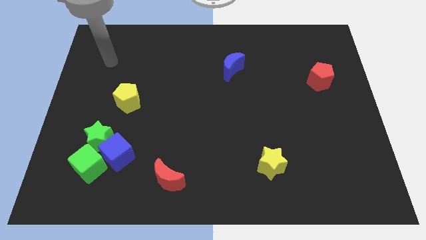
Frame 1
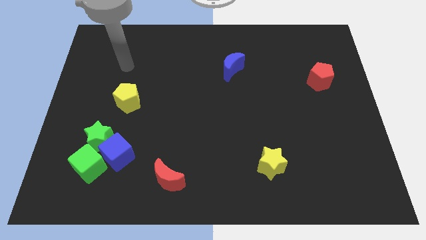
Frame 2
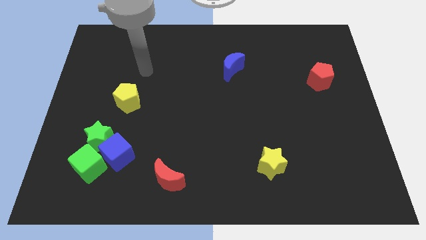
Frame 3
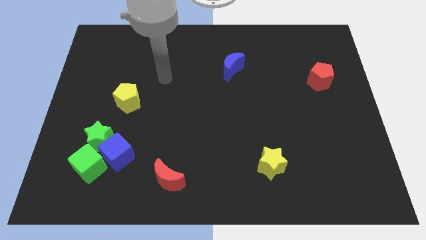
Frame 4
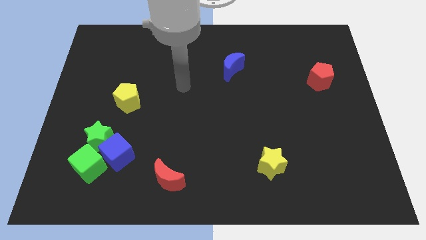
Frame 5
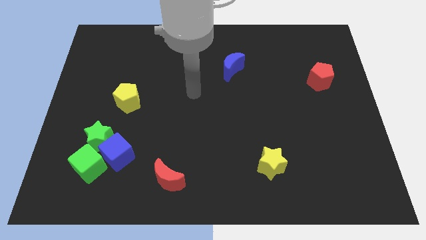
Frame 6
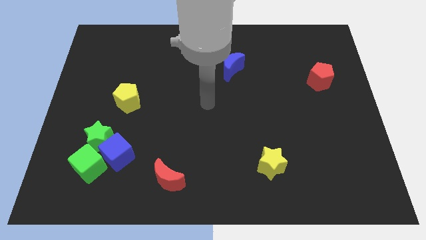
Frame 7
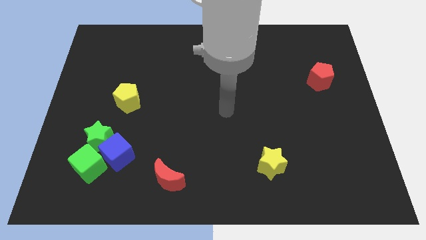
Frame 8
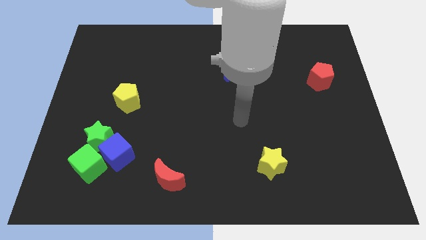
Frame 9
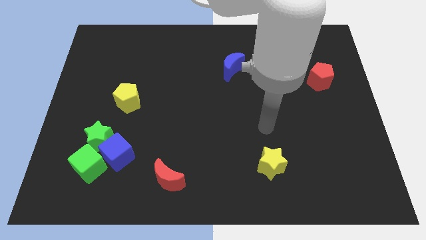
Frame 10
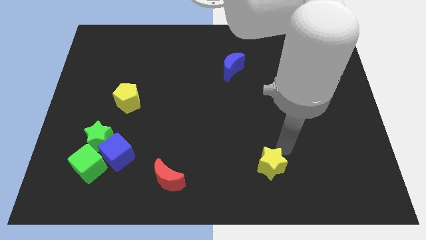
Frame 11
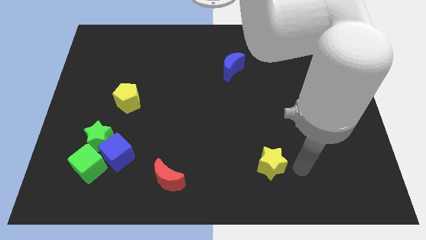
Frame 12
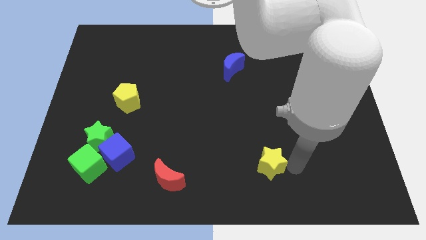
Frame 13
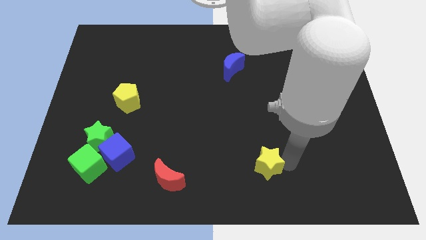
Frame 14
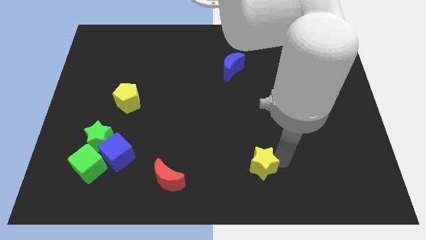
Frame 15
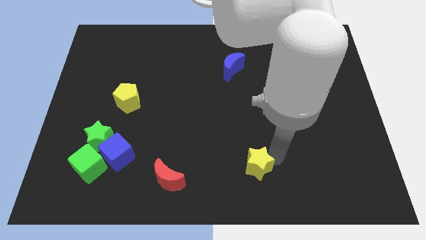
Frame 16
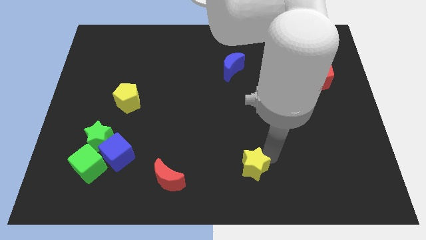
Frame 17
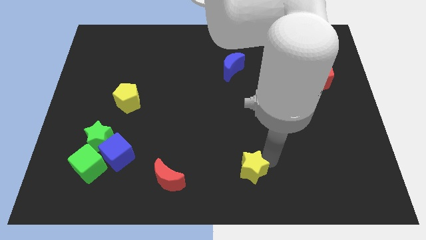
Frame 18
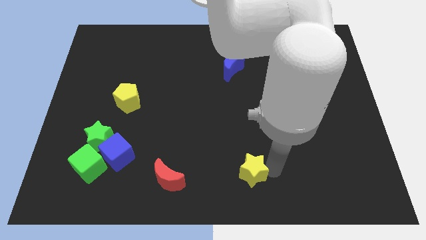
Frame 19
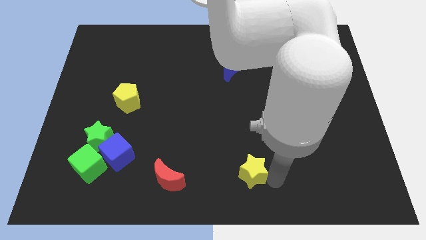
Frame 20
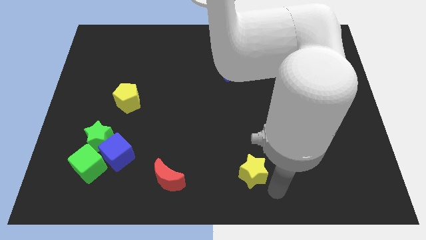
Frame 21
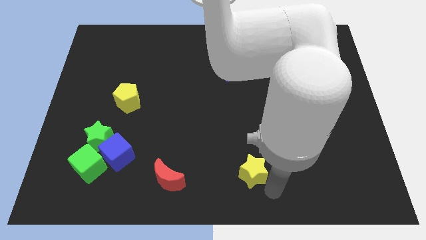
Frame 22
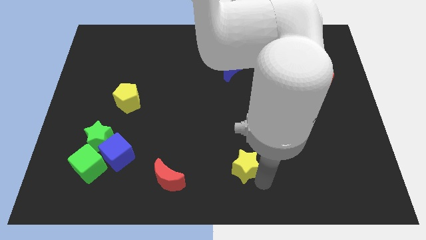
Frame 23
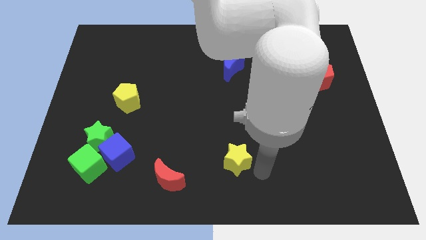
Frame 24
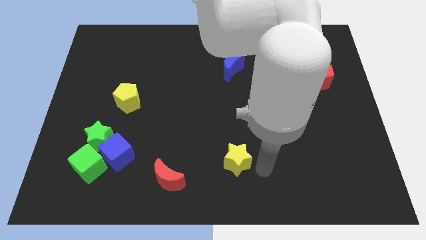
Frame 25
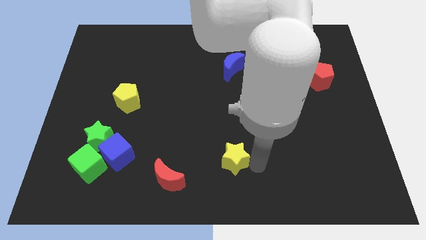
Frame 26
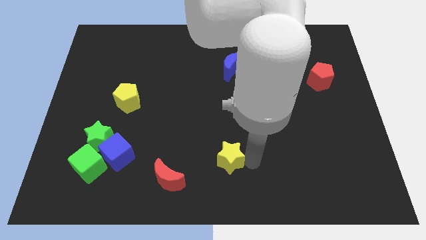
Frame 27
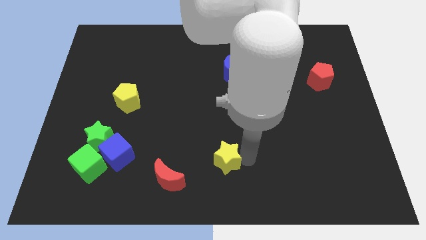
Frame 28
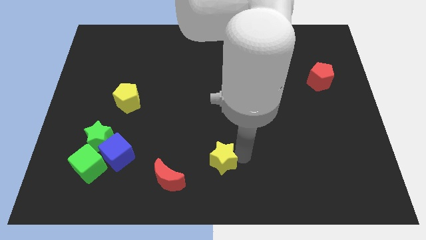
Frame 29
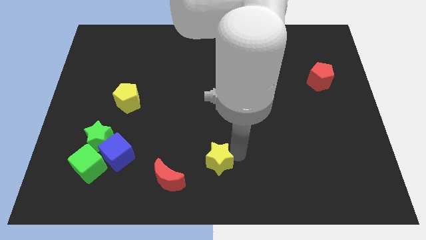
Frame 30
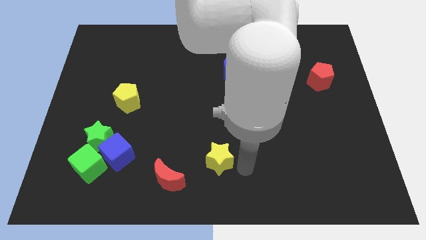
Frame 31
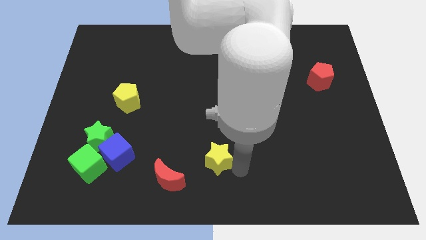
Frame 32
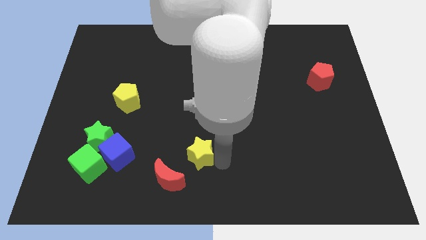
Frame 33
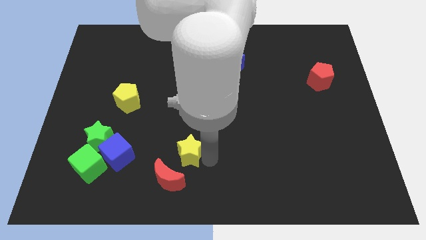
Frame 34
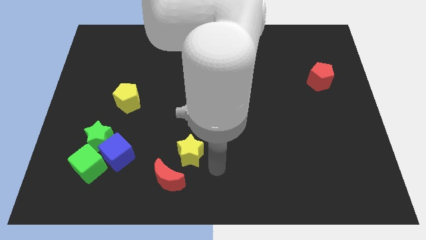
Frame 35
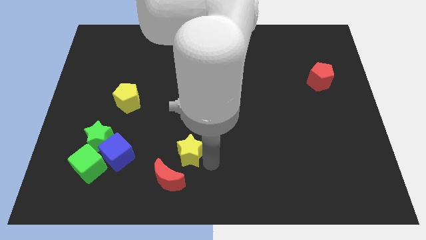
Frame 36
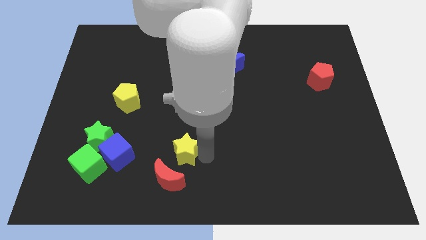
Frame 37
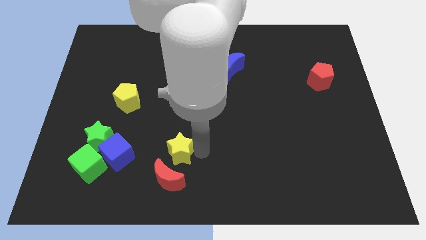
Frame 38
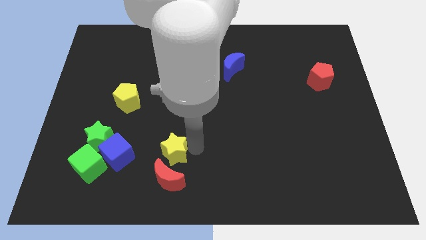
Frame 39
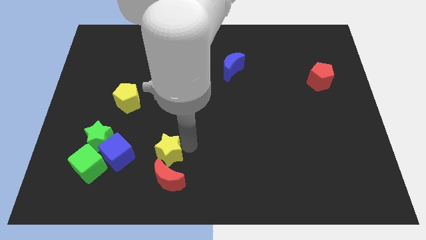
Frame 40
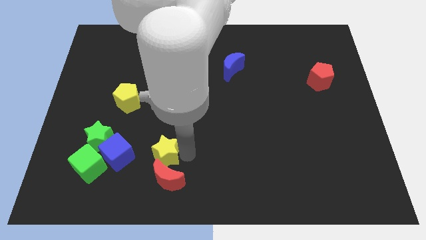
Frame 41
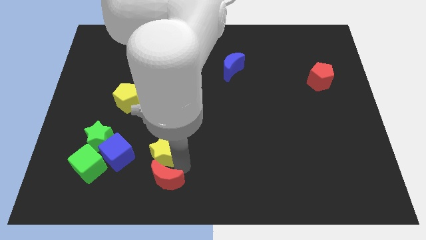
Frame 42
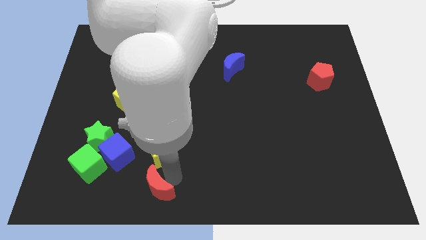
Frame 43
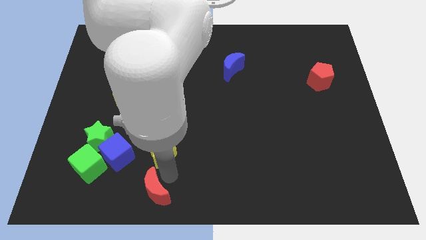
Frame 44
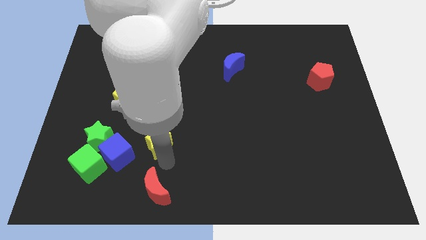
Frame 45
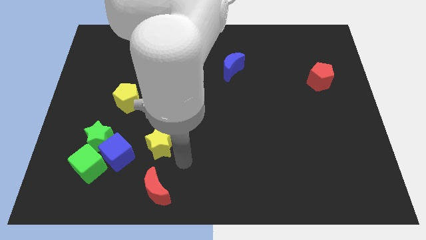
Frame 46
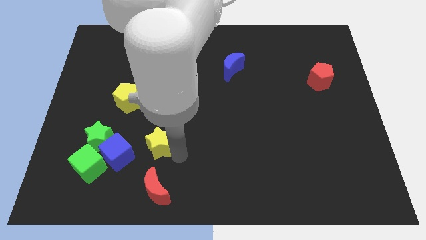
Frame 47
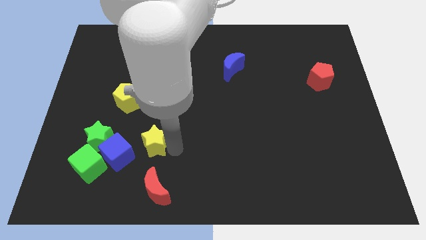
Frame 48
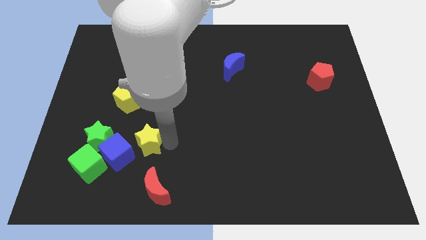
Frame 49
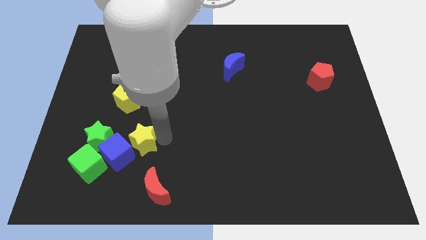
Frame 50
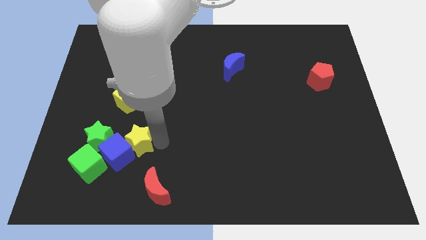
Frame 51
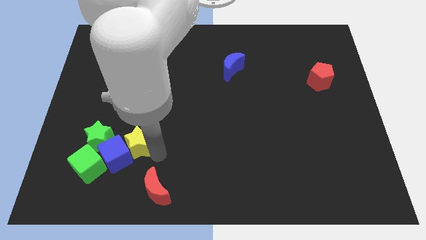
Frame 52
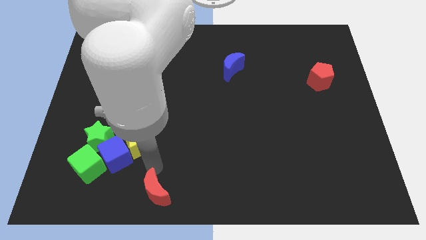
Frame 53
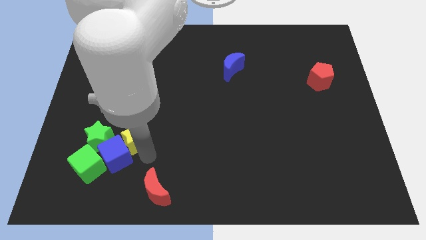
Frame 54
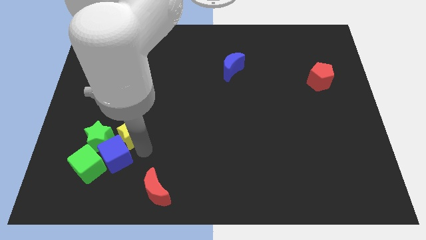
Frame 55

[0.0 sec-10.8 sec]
slide the yellow star to the top right of the green star

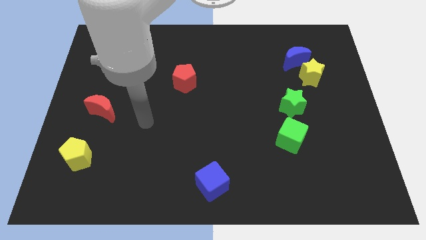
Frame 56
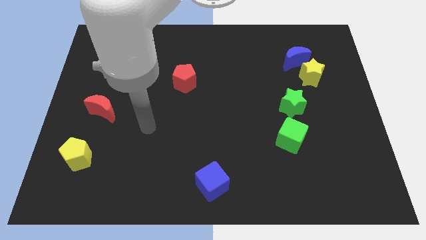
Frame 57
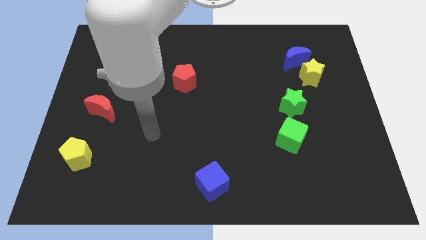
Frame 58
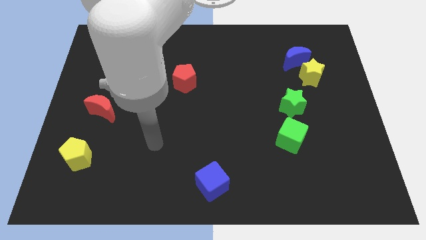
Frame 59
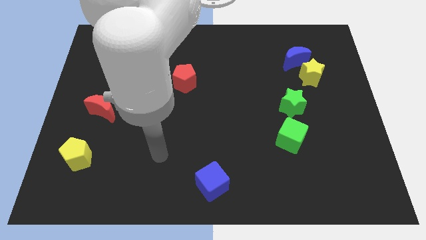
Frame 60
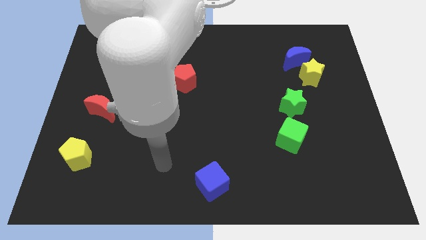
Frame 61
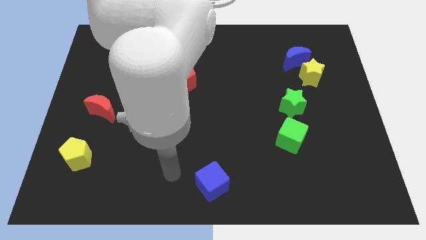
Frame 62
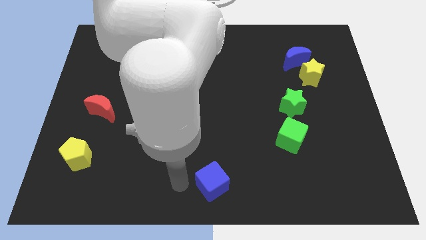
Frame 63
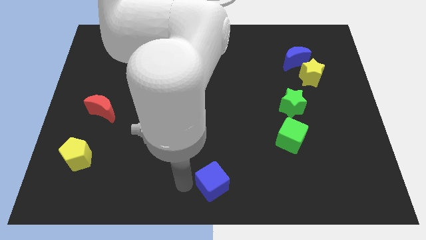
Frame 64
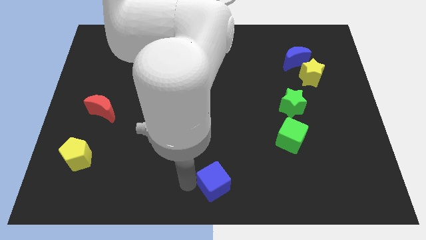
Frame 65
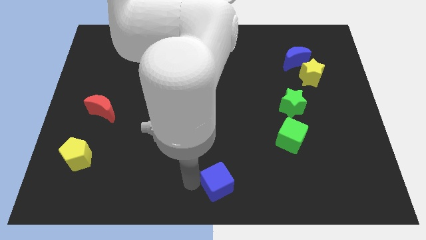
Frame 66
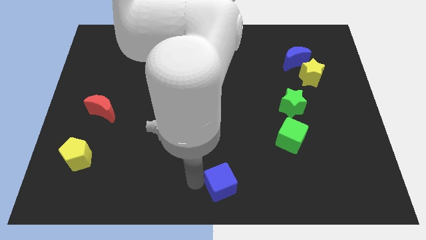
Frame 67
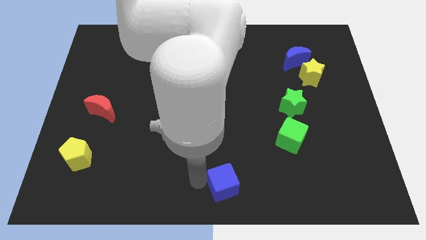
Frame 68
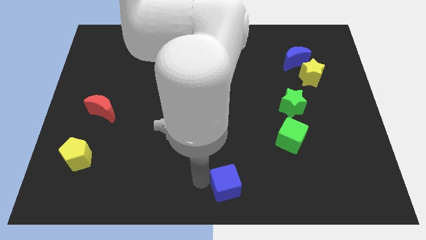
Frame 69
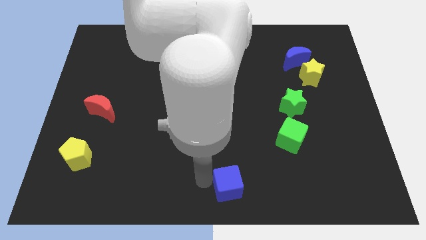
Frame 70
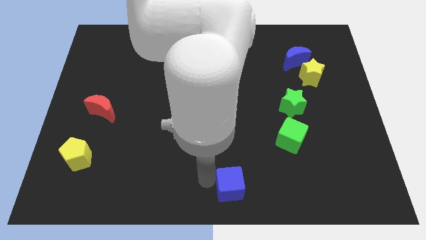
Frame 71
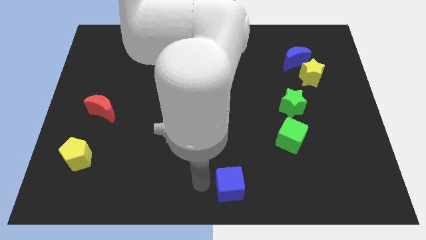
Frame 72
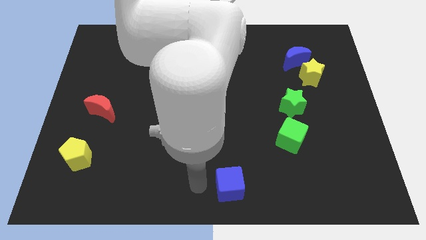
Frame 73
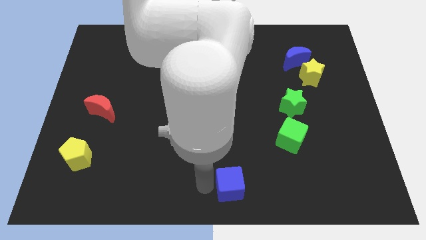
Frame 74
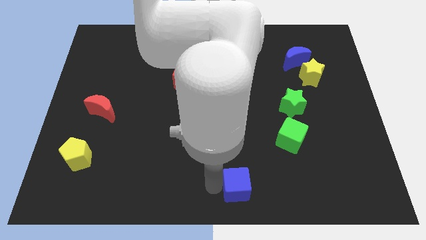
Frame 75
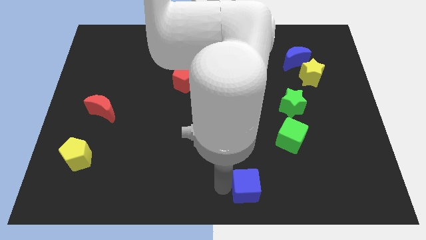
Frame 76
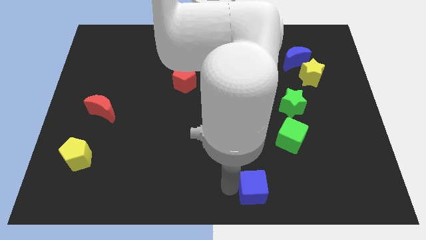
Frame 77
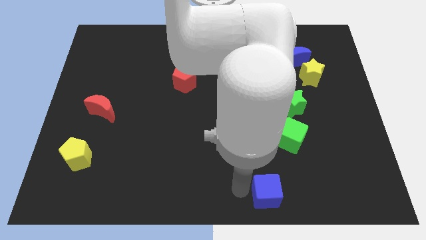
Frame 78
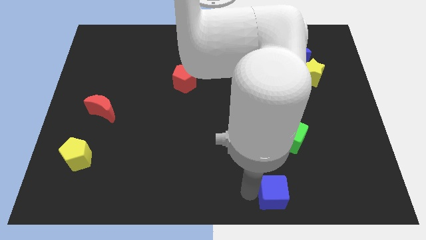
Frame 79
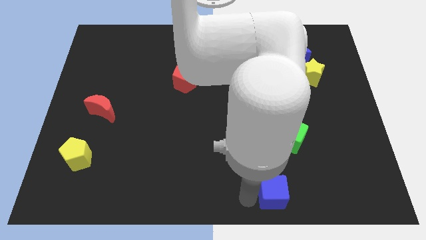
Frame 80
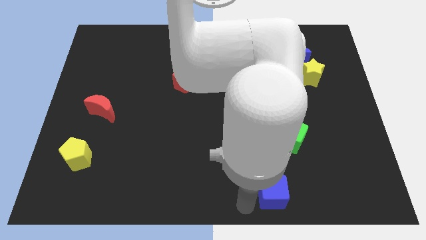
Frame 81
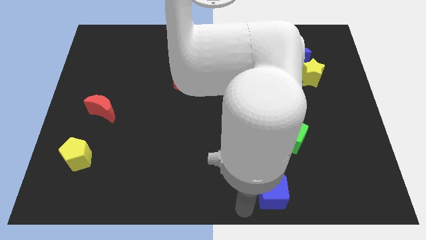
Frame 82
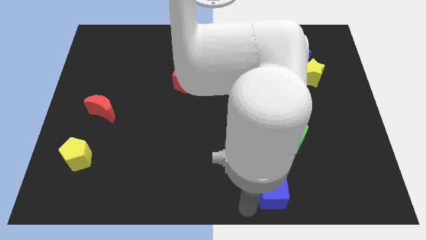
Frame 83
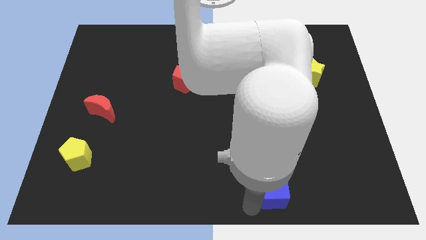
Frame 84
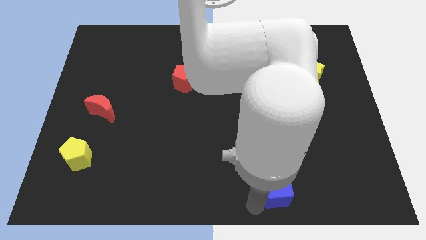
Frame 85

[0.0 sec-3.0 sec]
move the blue cube to the bottom of the green cube
